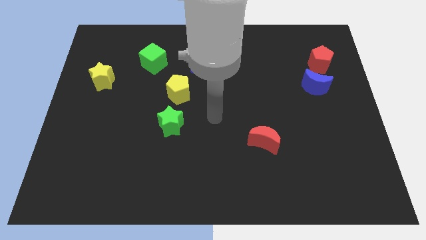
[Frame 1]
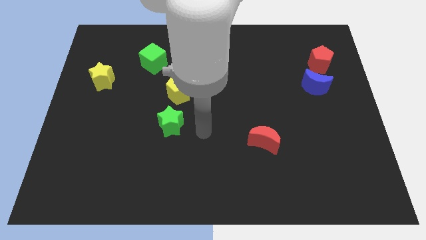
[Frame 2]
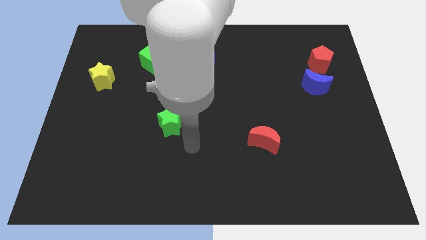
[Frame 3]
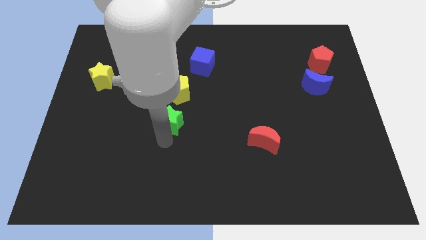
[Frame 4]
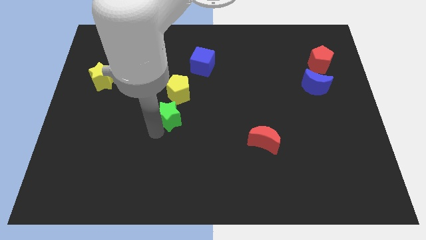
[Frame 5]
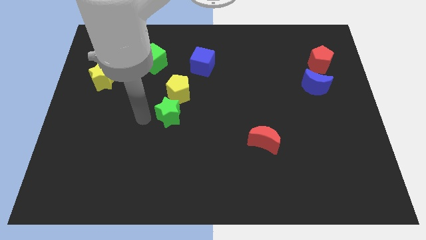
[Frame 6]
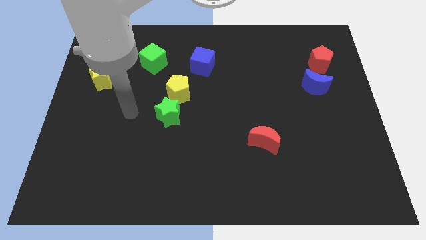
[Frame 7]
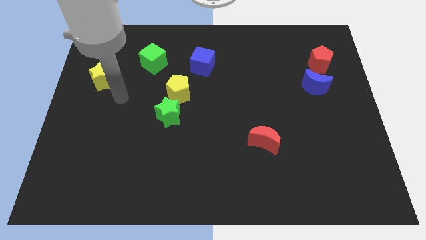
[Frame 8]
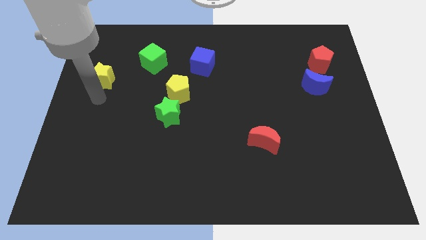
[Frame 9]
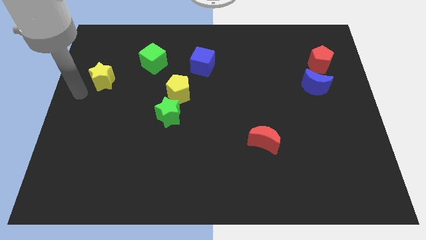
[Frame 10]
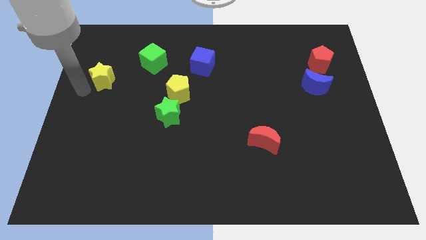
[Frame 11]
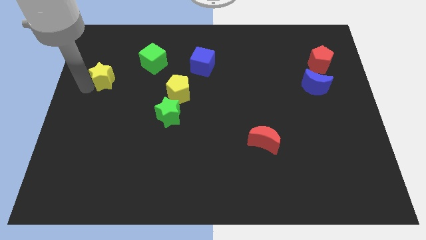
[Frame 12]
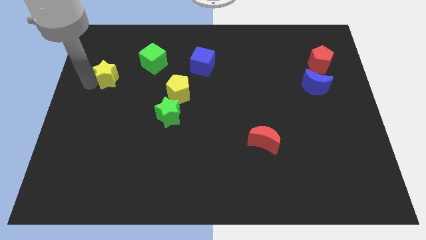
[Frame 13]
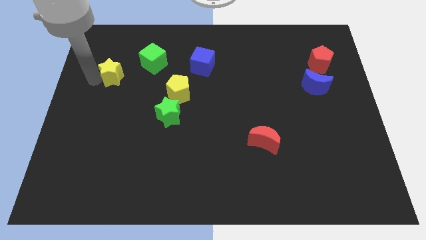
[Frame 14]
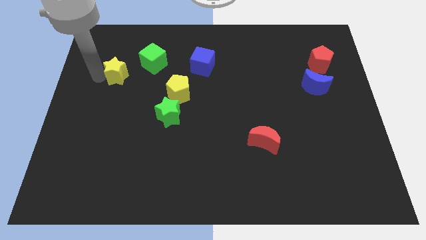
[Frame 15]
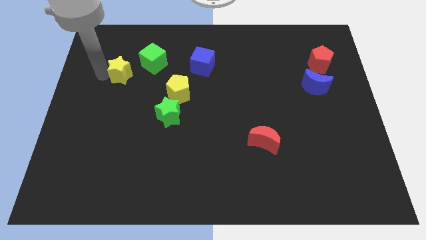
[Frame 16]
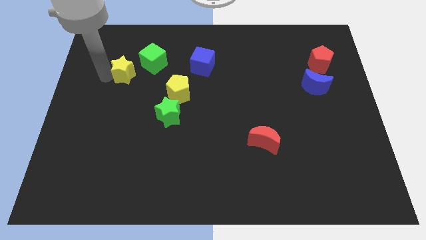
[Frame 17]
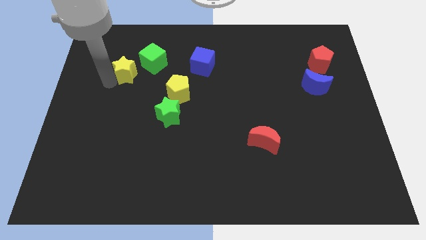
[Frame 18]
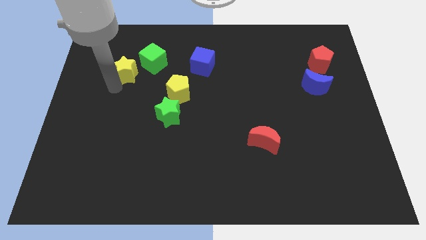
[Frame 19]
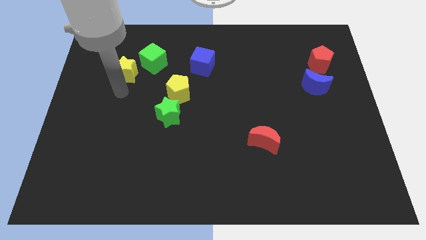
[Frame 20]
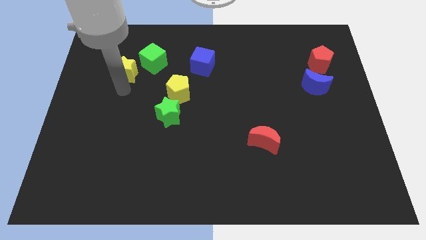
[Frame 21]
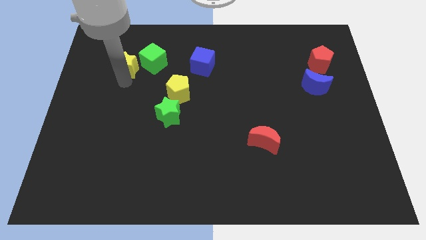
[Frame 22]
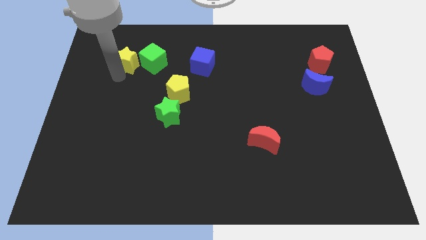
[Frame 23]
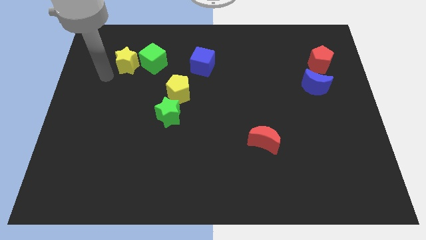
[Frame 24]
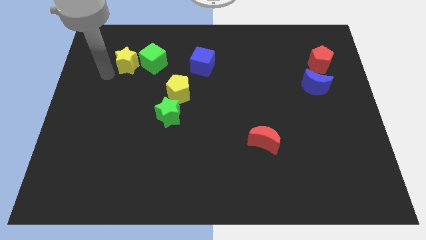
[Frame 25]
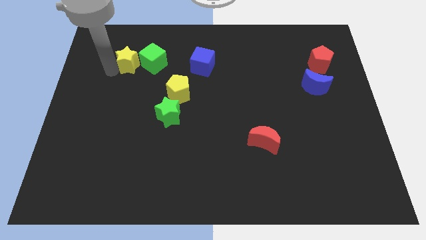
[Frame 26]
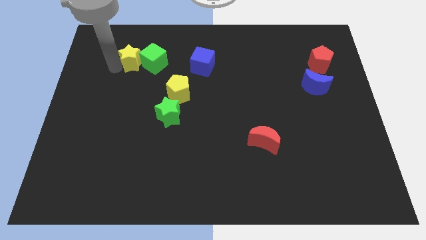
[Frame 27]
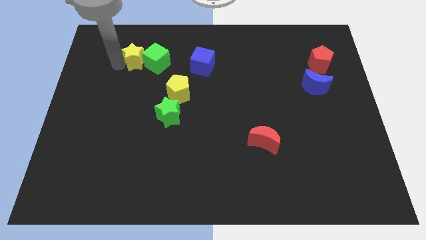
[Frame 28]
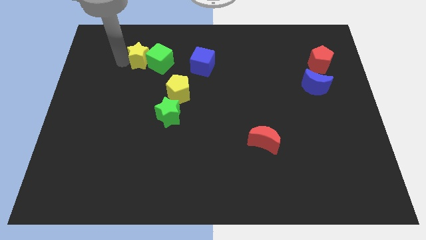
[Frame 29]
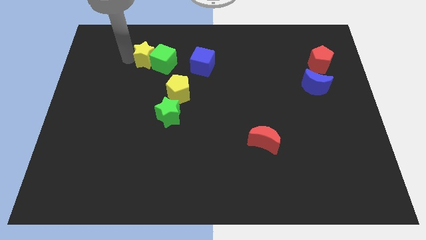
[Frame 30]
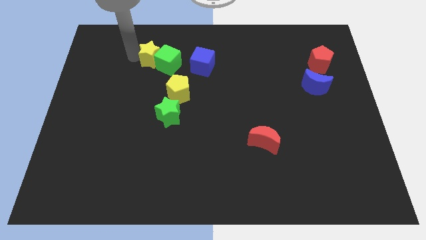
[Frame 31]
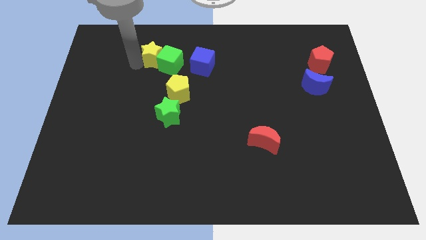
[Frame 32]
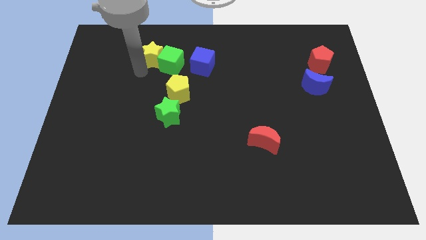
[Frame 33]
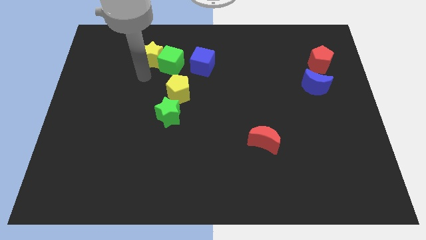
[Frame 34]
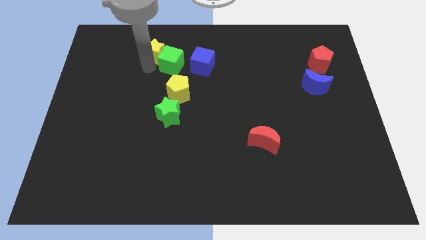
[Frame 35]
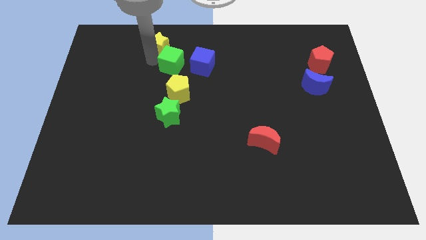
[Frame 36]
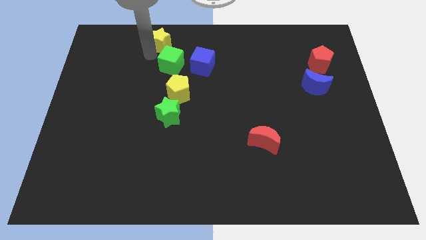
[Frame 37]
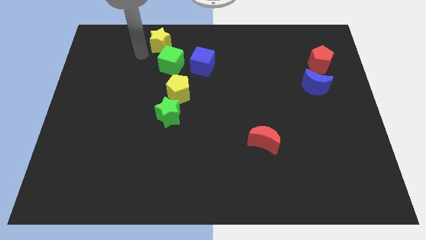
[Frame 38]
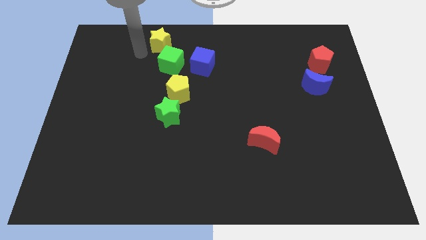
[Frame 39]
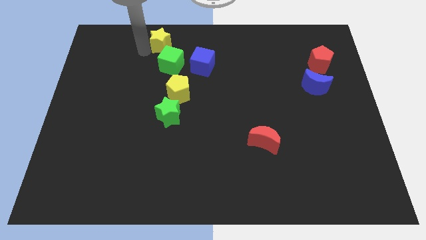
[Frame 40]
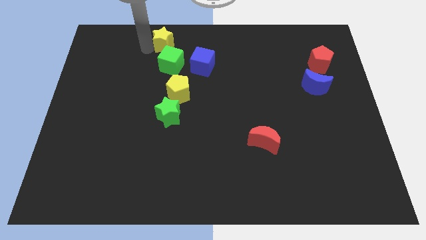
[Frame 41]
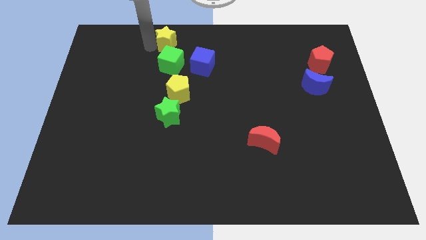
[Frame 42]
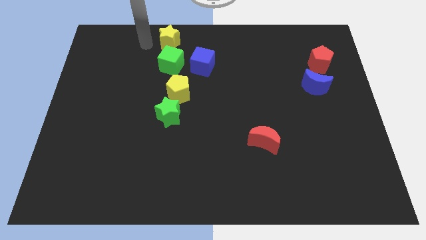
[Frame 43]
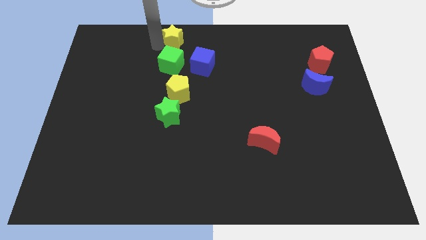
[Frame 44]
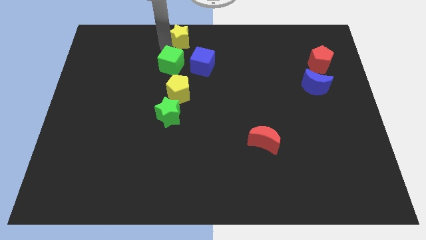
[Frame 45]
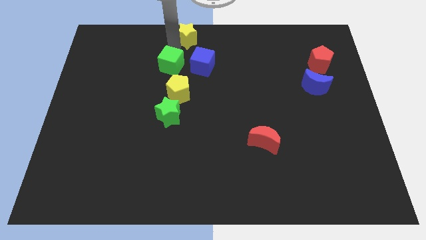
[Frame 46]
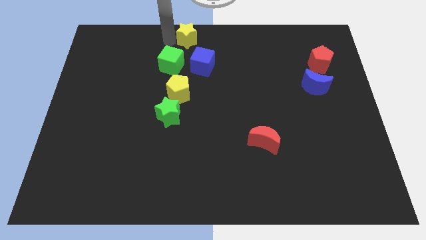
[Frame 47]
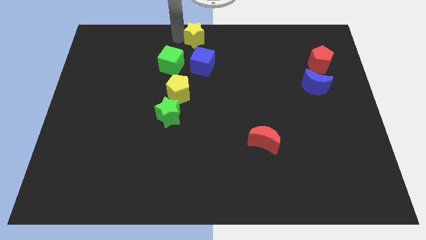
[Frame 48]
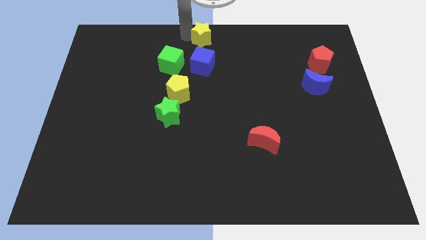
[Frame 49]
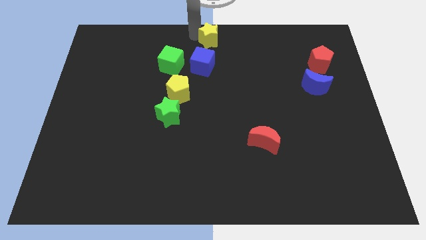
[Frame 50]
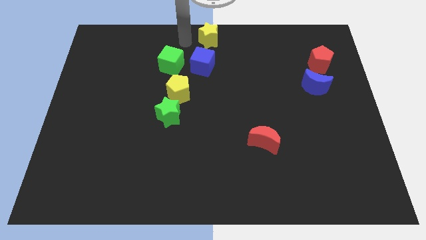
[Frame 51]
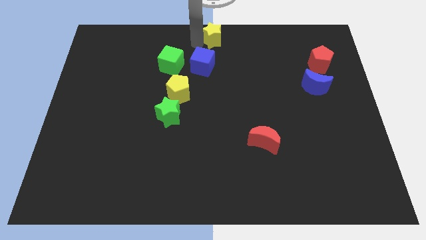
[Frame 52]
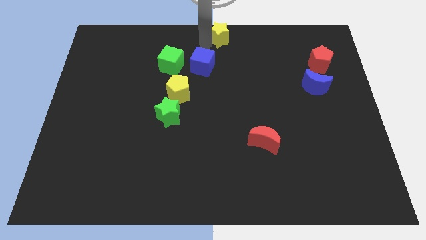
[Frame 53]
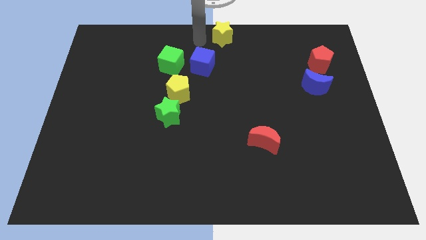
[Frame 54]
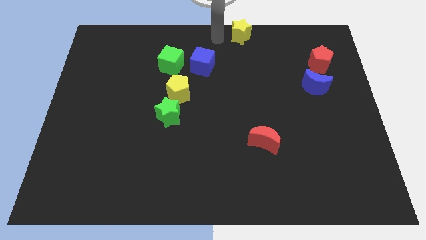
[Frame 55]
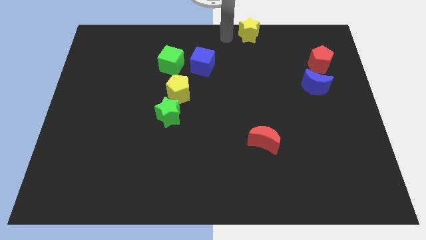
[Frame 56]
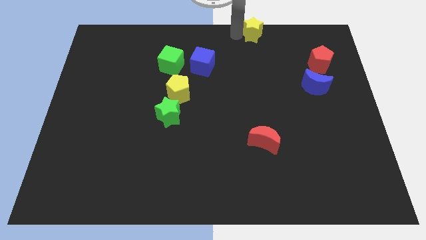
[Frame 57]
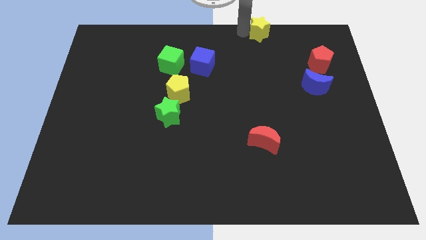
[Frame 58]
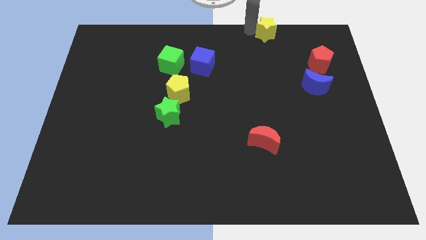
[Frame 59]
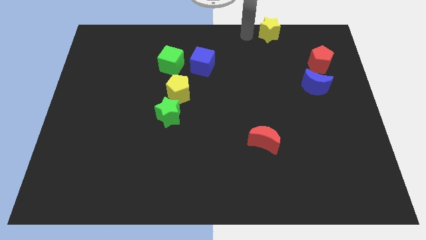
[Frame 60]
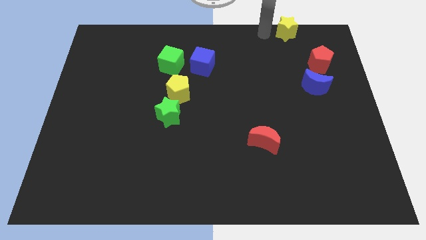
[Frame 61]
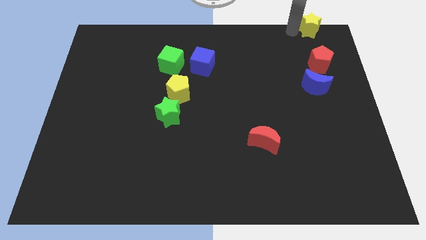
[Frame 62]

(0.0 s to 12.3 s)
push the yellow star to the upper right corner

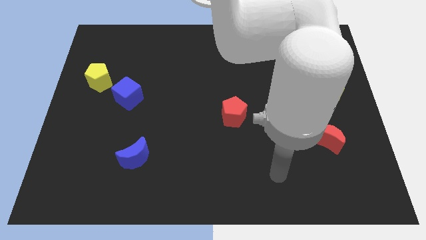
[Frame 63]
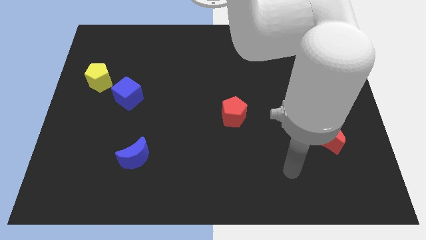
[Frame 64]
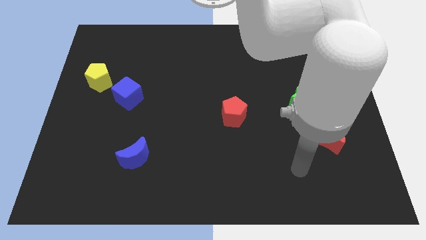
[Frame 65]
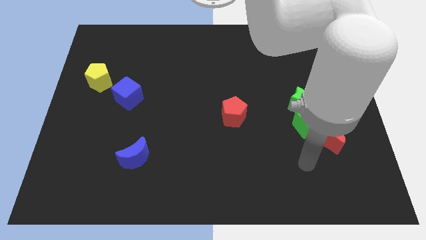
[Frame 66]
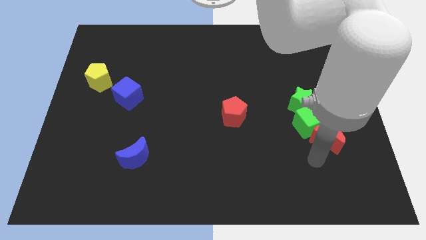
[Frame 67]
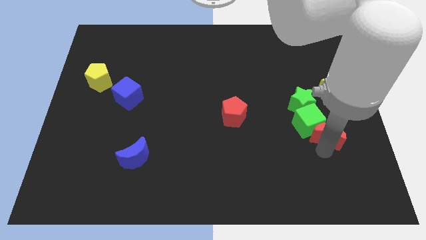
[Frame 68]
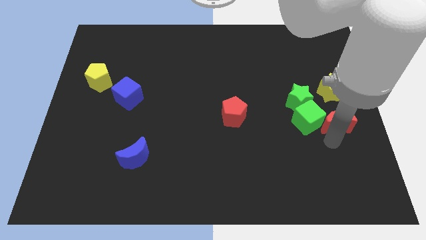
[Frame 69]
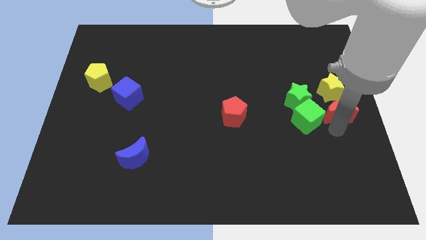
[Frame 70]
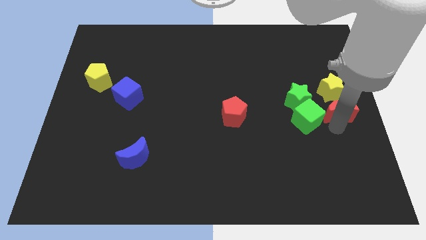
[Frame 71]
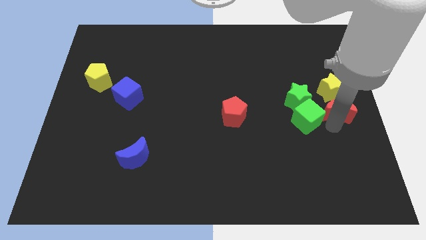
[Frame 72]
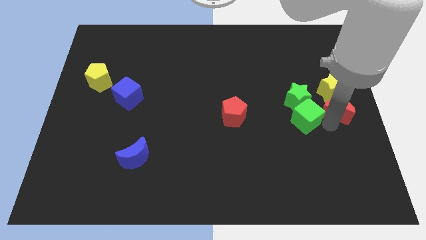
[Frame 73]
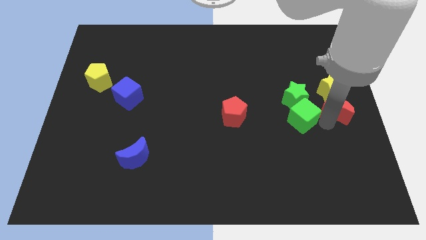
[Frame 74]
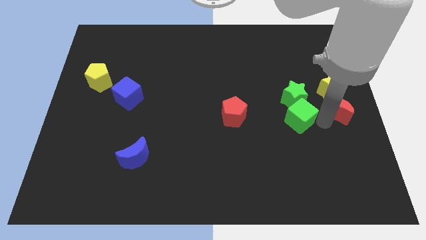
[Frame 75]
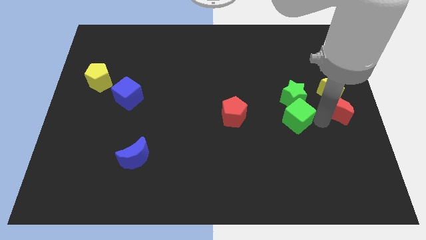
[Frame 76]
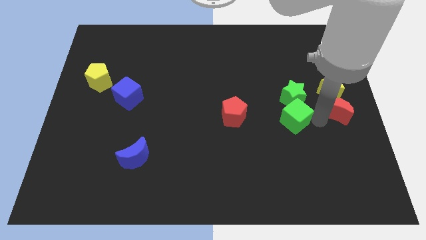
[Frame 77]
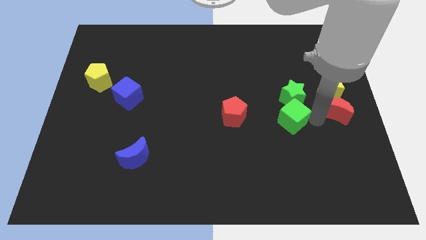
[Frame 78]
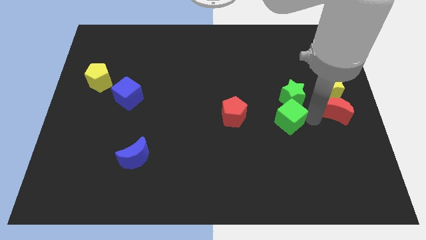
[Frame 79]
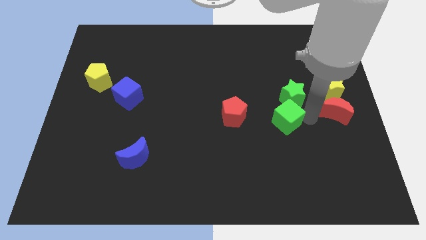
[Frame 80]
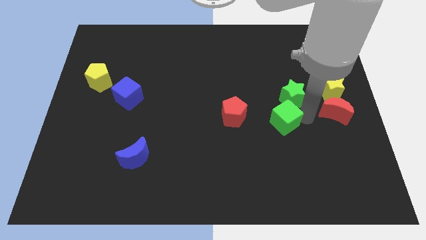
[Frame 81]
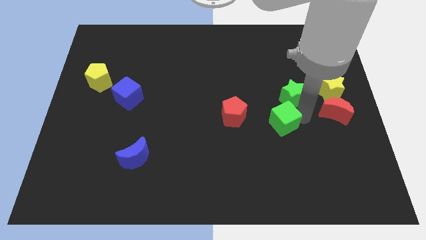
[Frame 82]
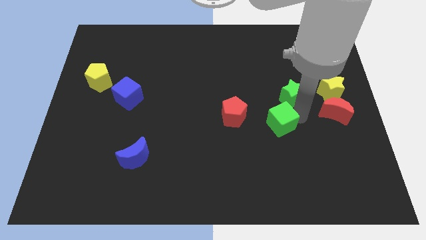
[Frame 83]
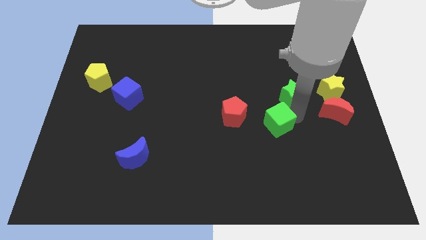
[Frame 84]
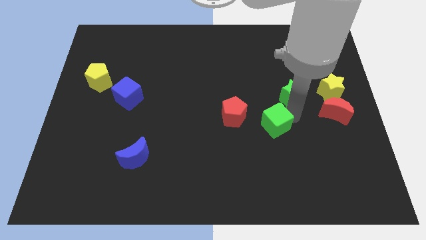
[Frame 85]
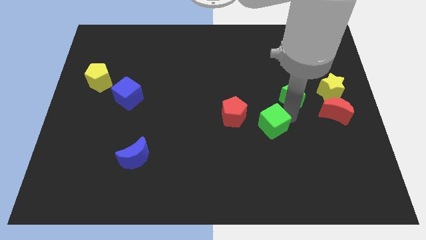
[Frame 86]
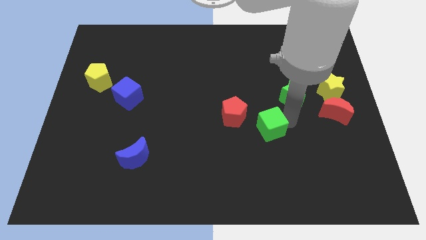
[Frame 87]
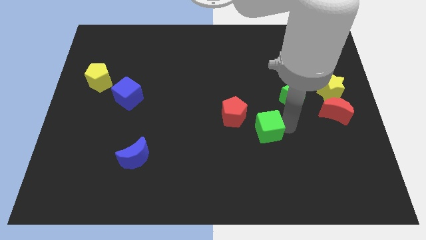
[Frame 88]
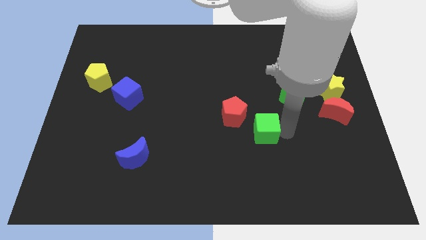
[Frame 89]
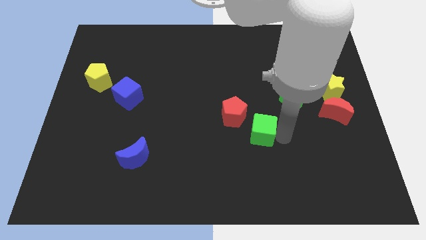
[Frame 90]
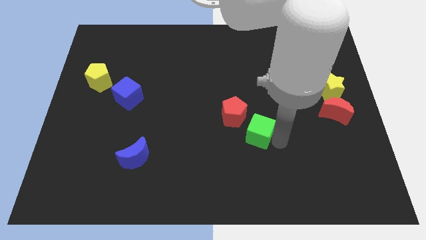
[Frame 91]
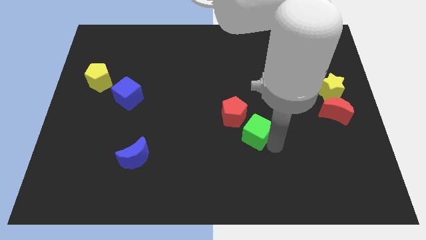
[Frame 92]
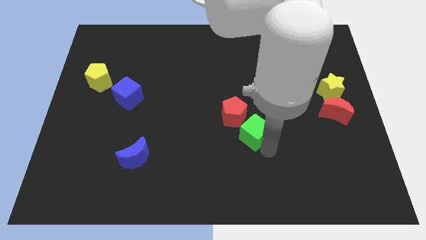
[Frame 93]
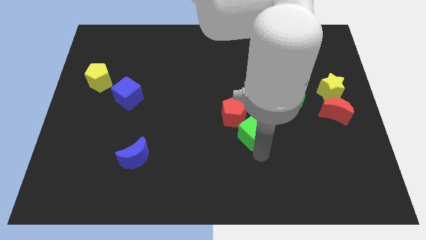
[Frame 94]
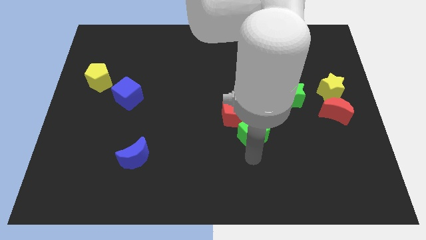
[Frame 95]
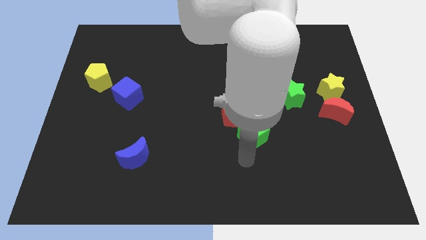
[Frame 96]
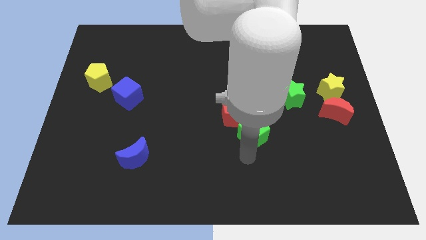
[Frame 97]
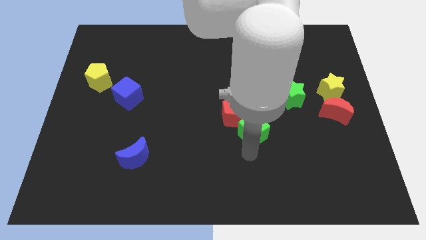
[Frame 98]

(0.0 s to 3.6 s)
put the green cube to the center
